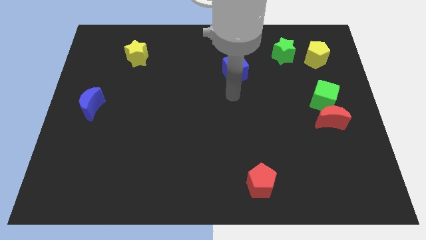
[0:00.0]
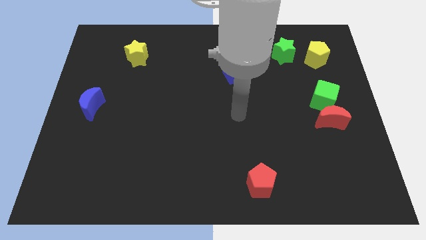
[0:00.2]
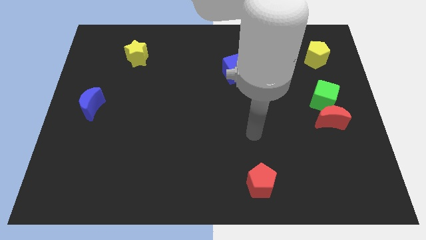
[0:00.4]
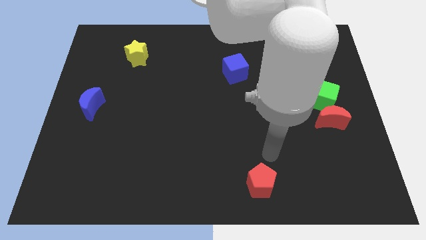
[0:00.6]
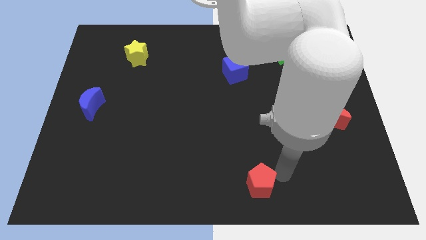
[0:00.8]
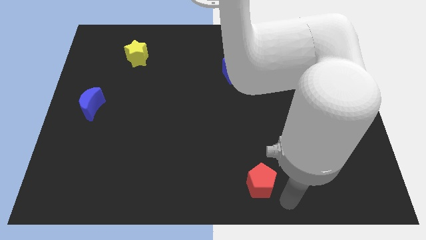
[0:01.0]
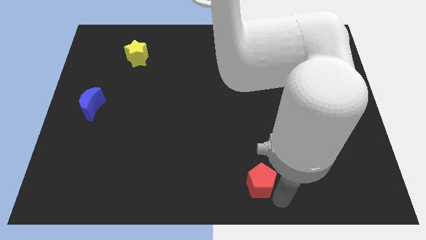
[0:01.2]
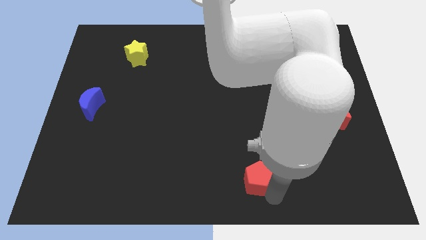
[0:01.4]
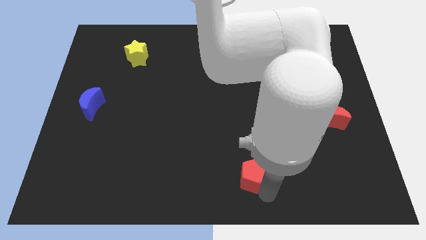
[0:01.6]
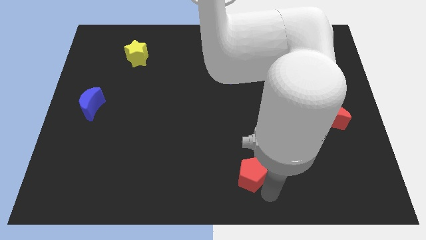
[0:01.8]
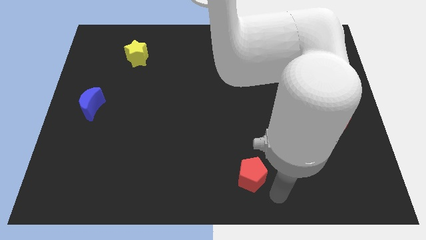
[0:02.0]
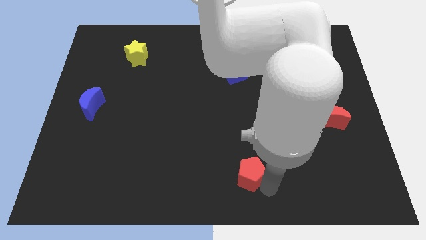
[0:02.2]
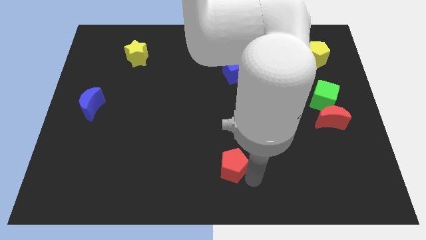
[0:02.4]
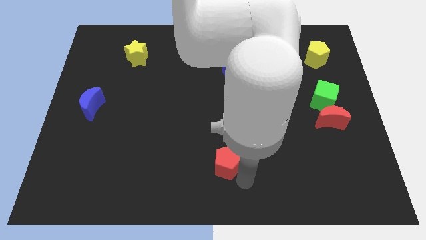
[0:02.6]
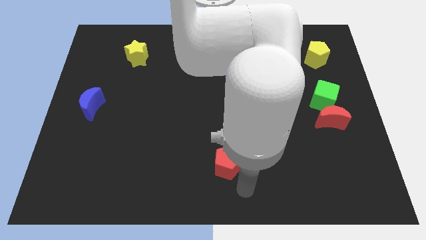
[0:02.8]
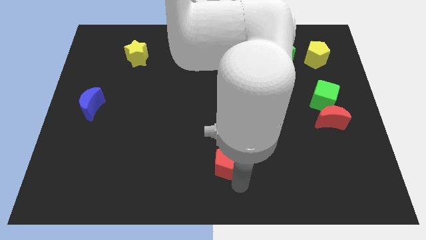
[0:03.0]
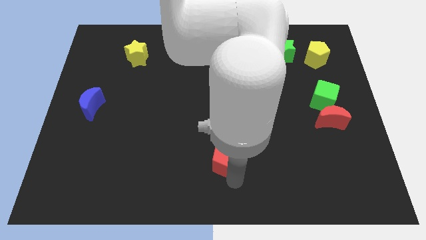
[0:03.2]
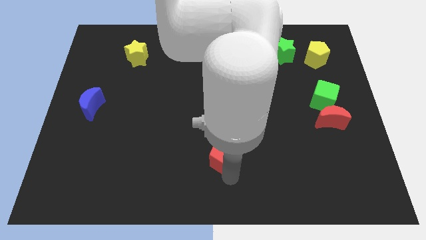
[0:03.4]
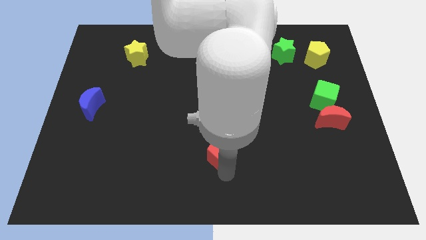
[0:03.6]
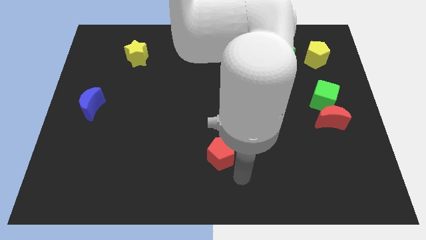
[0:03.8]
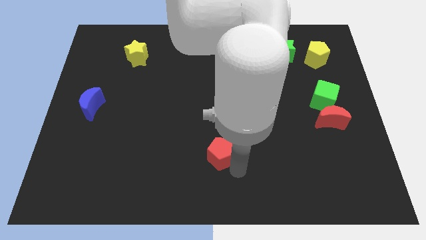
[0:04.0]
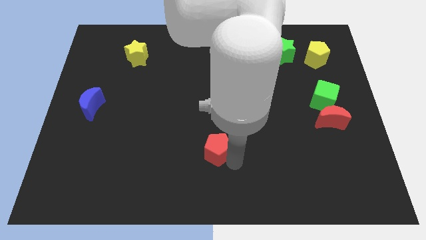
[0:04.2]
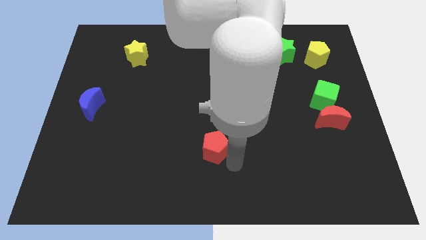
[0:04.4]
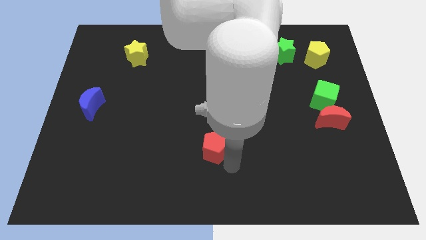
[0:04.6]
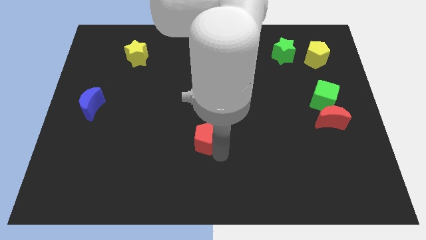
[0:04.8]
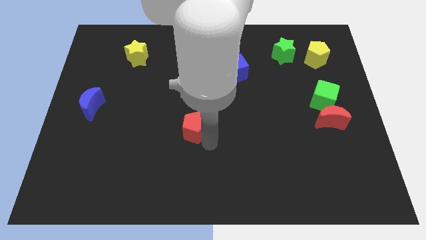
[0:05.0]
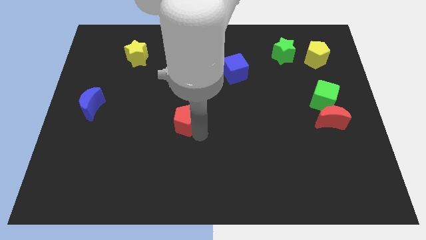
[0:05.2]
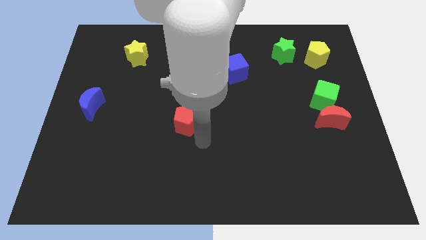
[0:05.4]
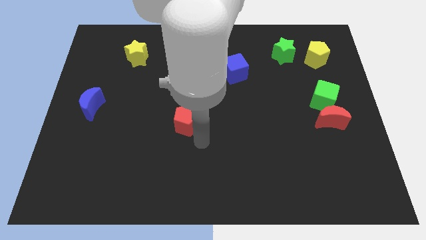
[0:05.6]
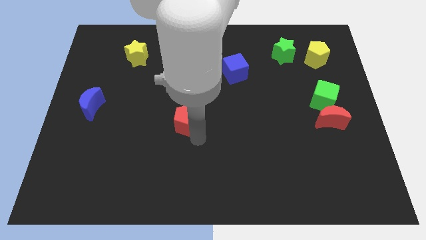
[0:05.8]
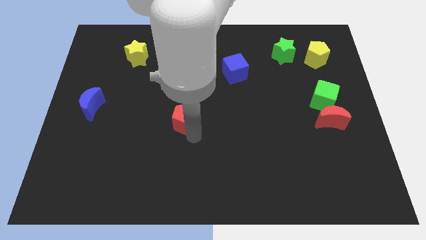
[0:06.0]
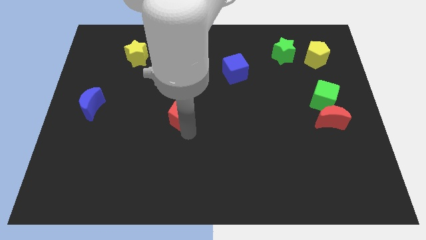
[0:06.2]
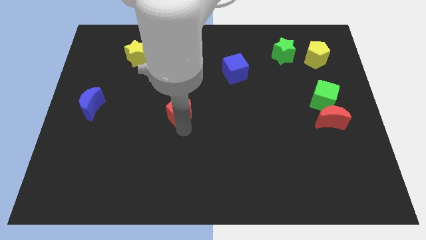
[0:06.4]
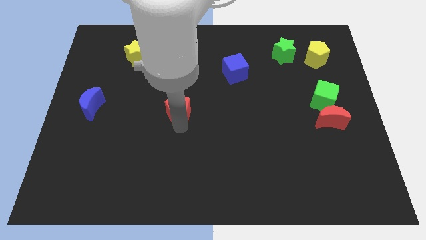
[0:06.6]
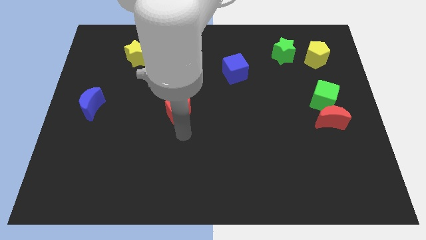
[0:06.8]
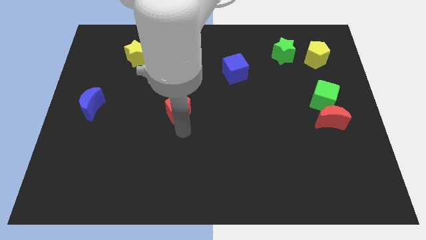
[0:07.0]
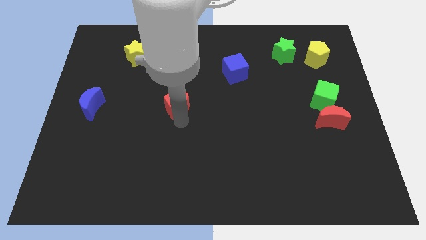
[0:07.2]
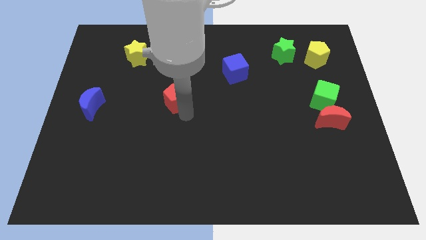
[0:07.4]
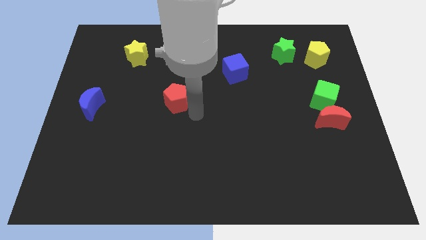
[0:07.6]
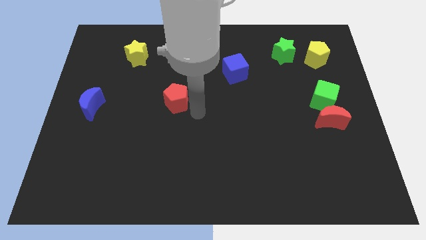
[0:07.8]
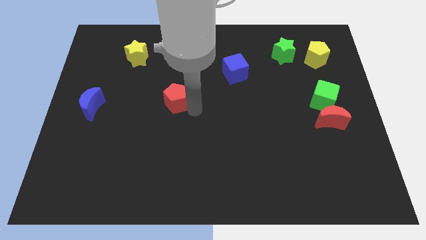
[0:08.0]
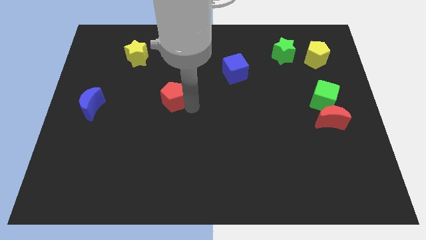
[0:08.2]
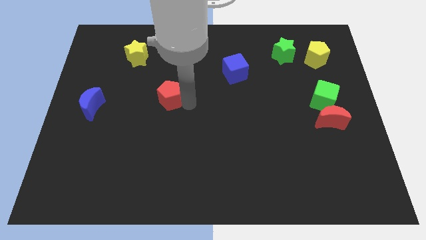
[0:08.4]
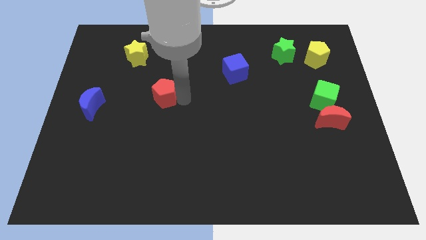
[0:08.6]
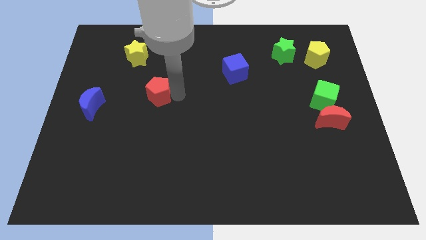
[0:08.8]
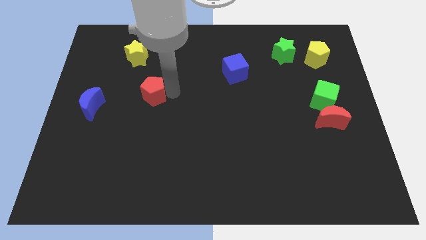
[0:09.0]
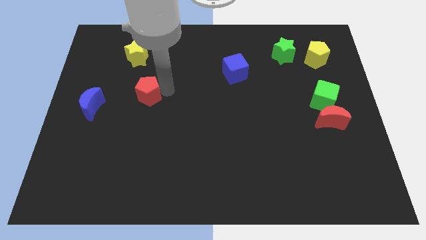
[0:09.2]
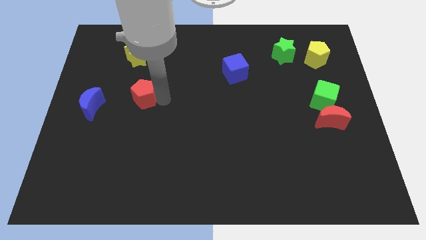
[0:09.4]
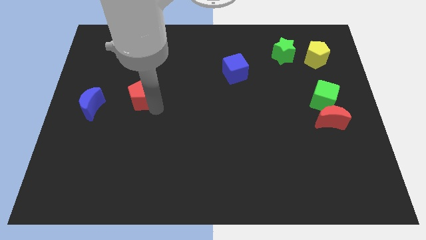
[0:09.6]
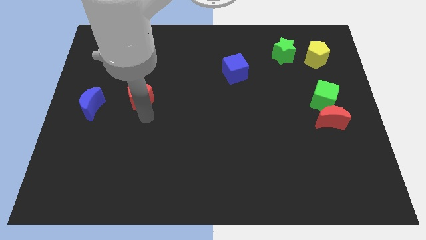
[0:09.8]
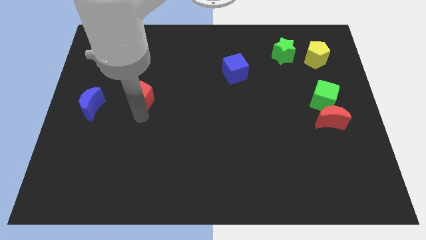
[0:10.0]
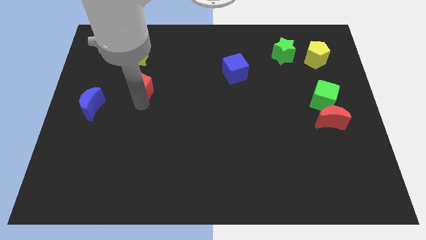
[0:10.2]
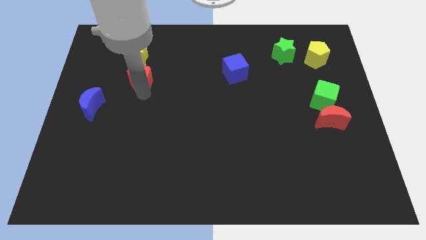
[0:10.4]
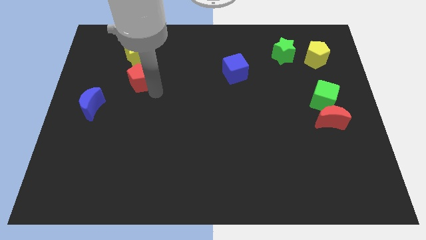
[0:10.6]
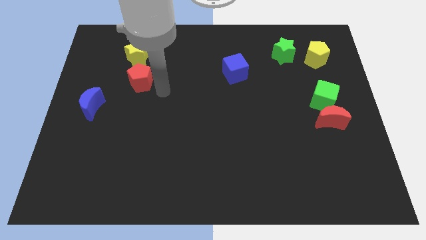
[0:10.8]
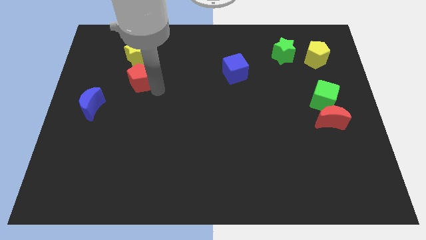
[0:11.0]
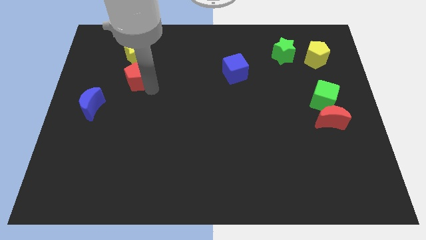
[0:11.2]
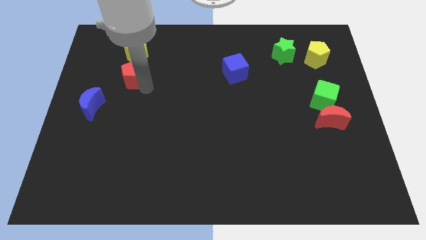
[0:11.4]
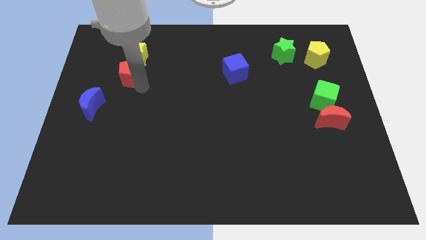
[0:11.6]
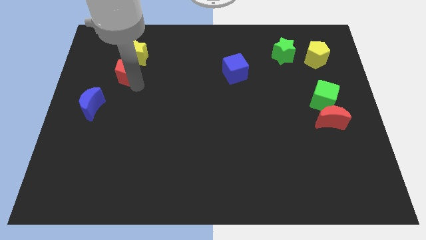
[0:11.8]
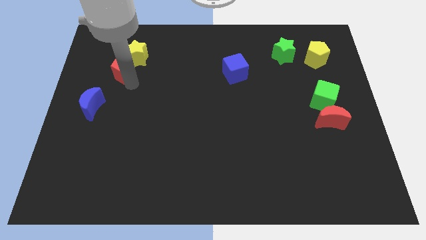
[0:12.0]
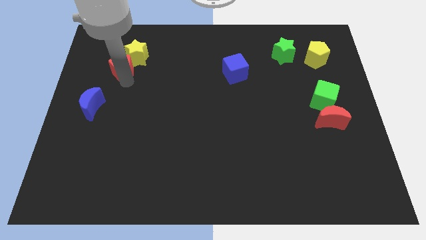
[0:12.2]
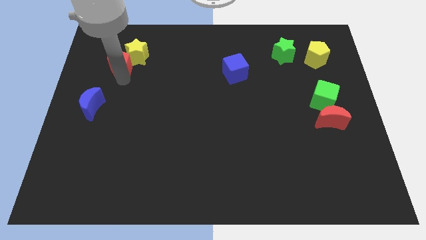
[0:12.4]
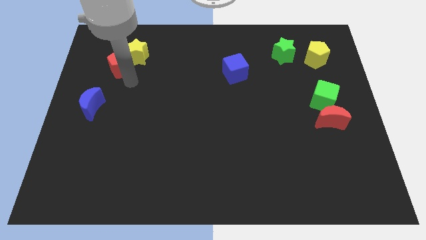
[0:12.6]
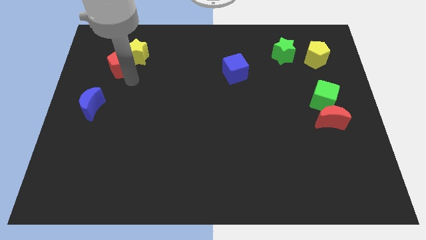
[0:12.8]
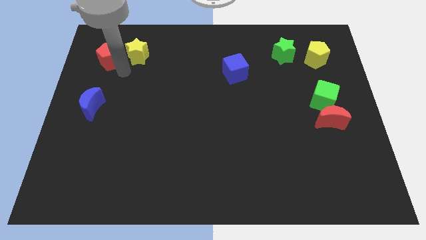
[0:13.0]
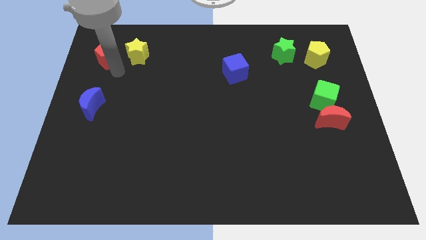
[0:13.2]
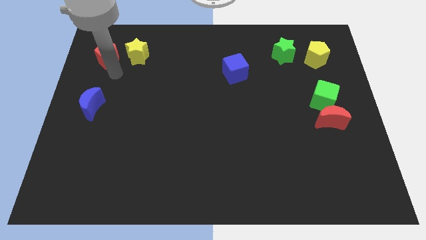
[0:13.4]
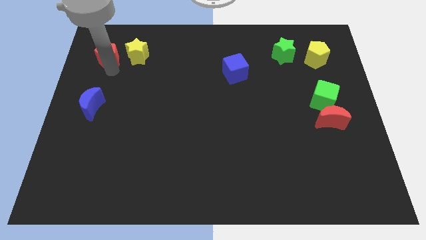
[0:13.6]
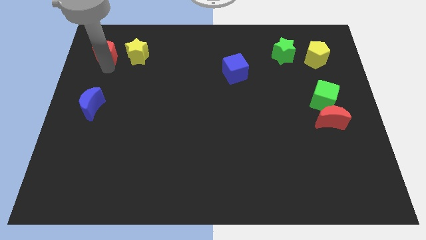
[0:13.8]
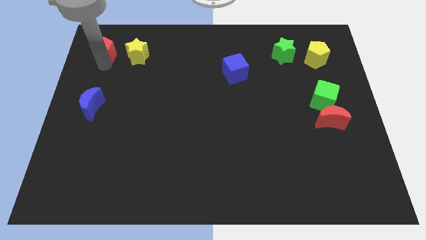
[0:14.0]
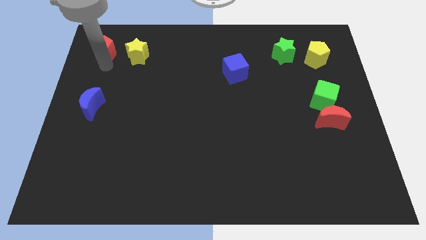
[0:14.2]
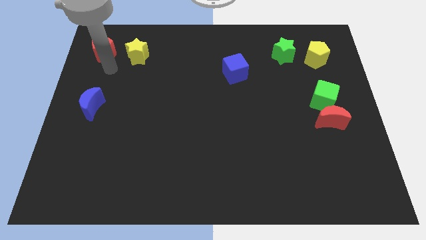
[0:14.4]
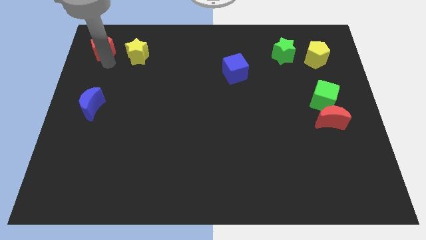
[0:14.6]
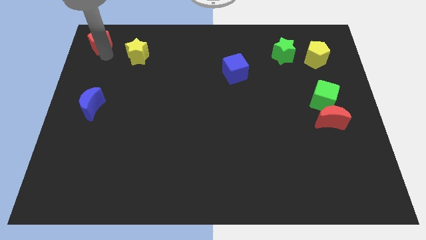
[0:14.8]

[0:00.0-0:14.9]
put the red pentagon to the upper left corner
